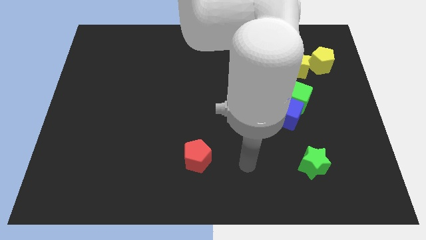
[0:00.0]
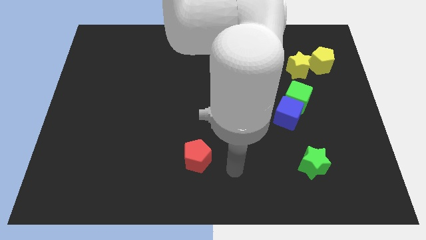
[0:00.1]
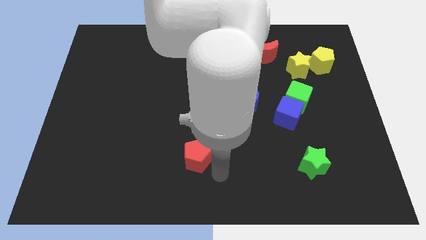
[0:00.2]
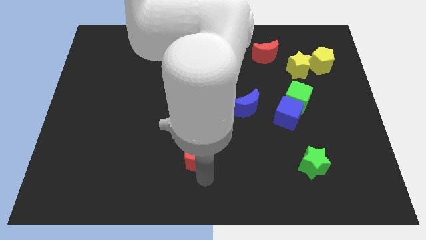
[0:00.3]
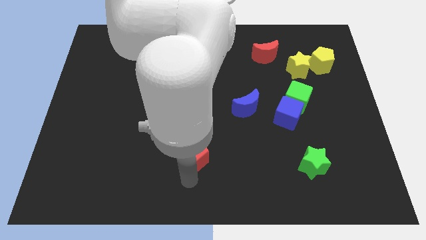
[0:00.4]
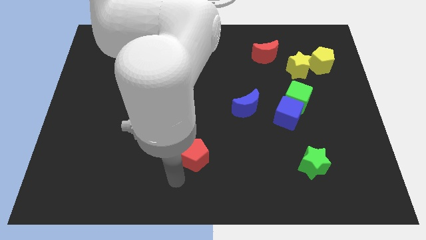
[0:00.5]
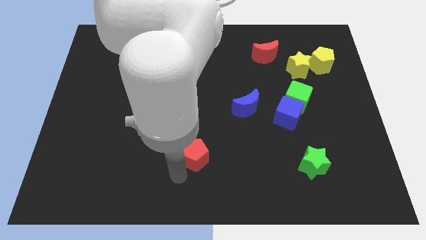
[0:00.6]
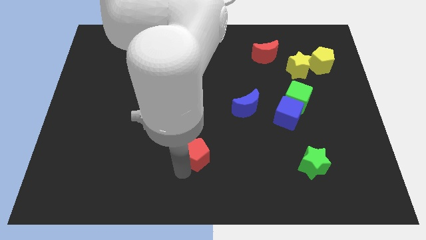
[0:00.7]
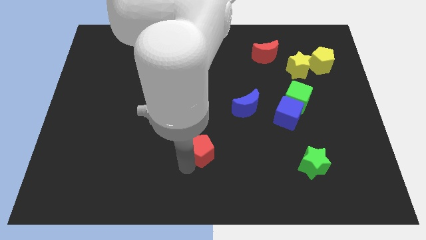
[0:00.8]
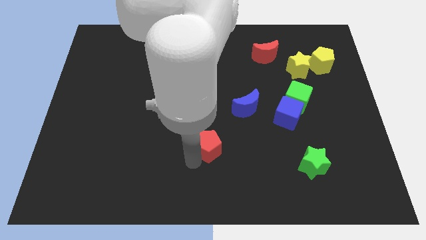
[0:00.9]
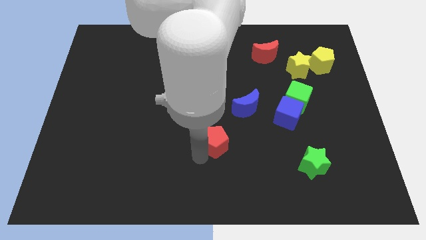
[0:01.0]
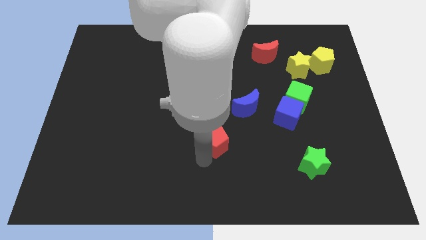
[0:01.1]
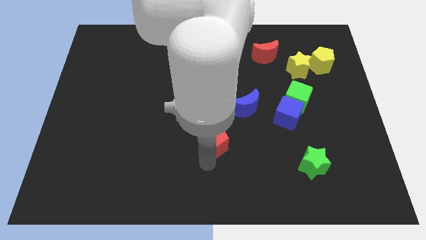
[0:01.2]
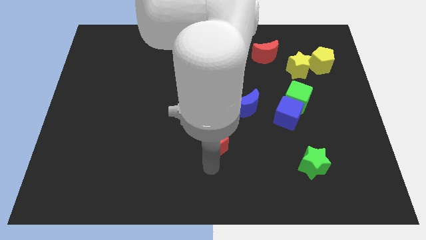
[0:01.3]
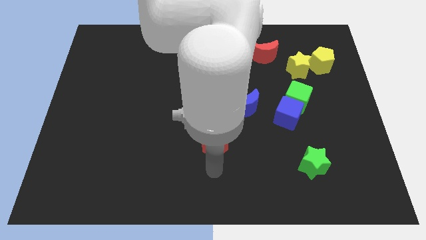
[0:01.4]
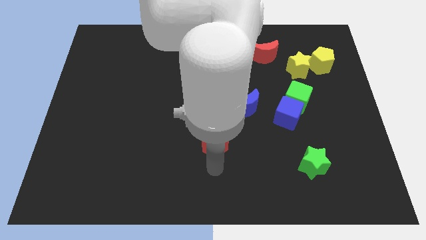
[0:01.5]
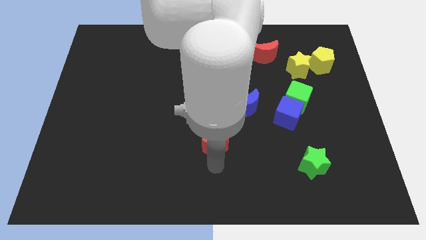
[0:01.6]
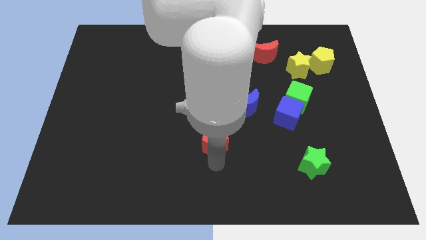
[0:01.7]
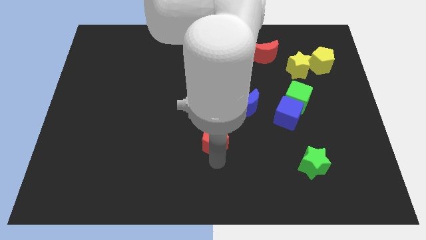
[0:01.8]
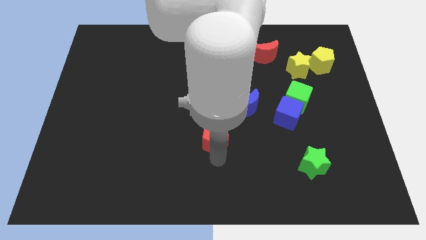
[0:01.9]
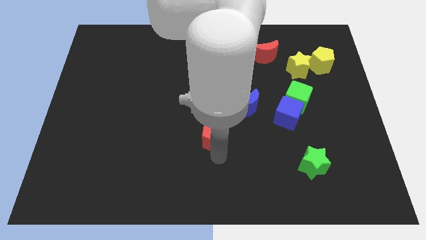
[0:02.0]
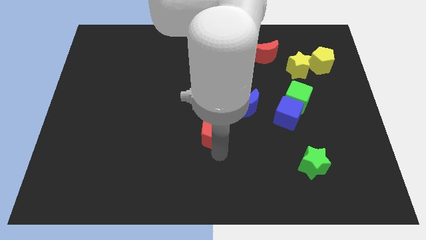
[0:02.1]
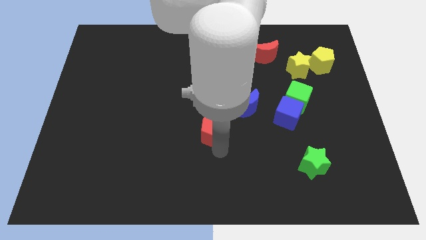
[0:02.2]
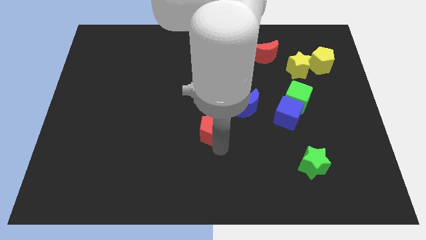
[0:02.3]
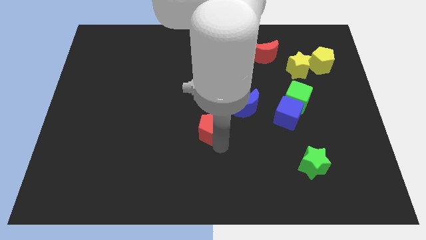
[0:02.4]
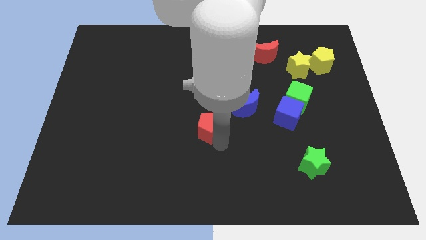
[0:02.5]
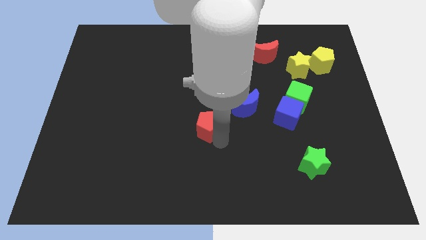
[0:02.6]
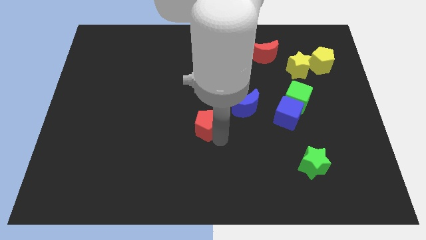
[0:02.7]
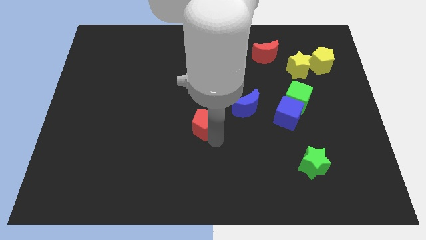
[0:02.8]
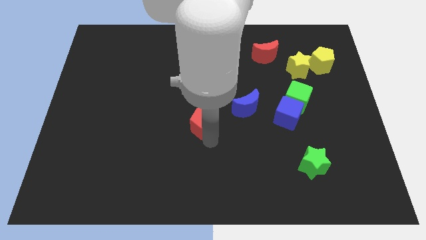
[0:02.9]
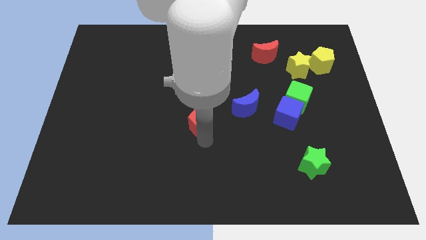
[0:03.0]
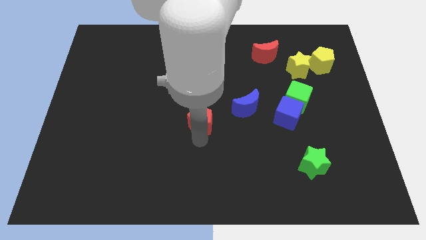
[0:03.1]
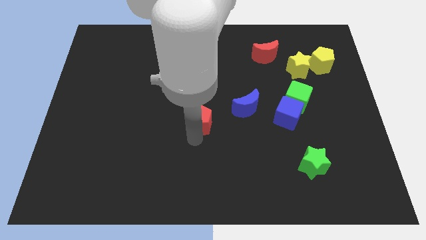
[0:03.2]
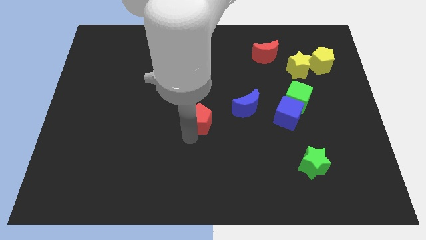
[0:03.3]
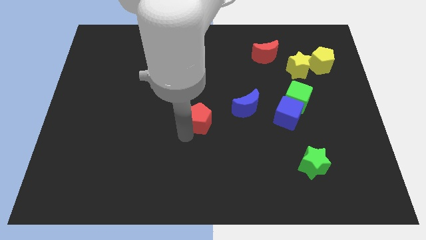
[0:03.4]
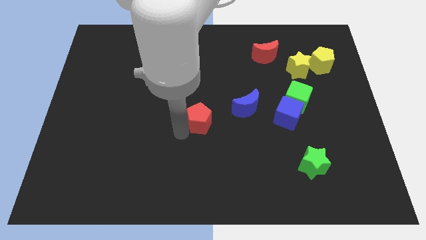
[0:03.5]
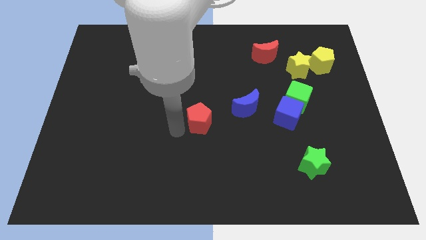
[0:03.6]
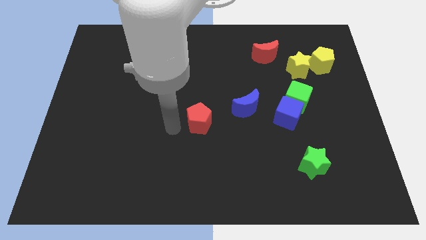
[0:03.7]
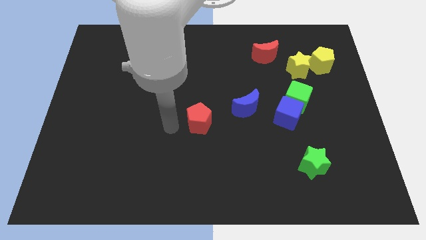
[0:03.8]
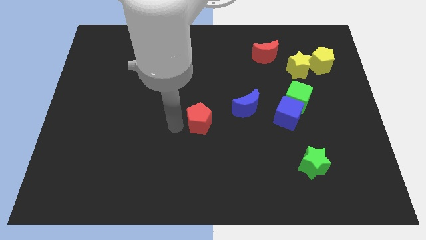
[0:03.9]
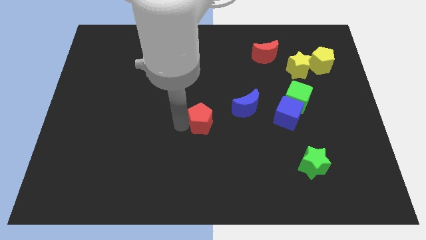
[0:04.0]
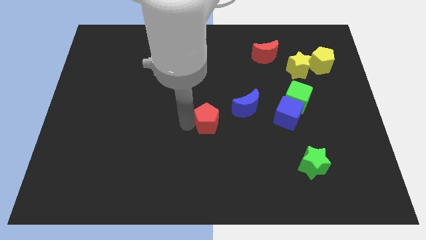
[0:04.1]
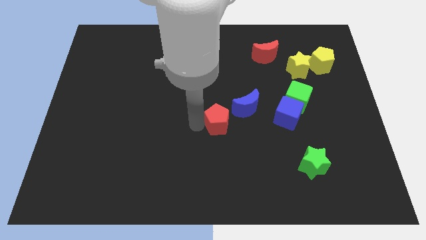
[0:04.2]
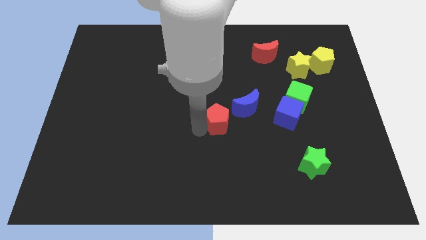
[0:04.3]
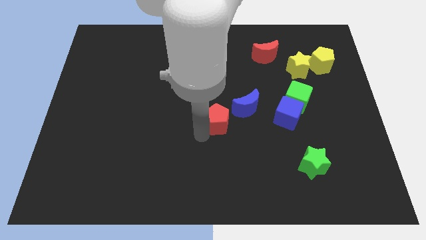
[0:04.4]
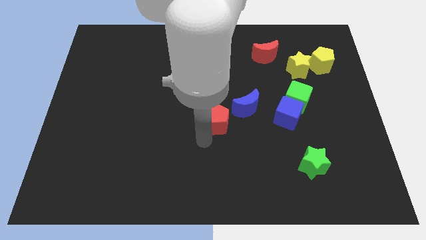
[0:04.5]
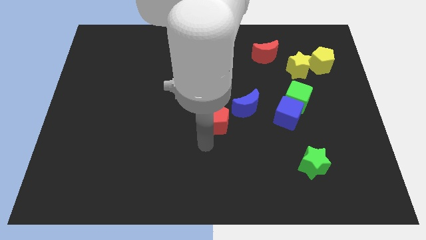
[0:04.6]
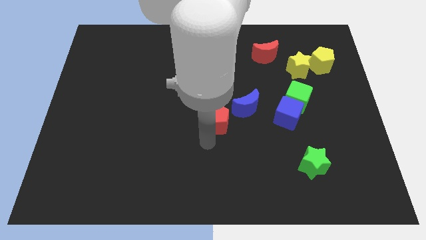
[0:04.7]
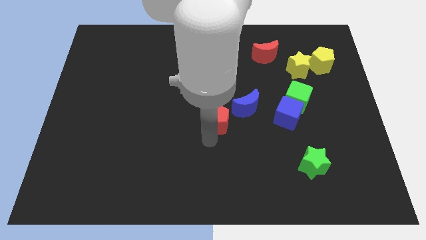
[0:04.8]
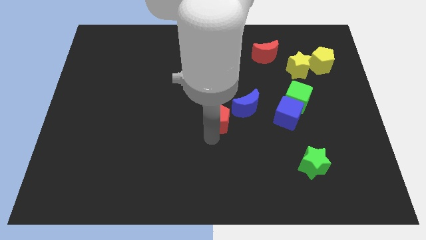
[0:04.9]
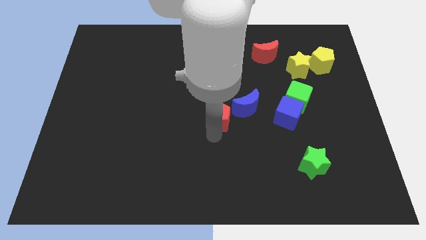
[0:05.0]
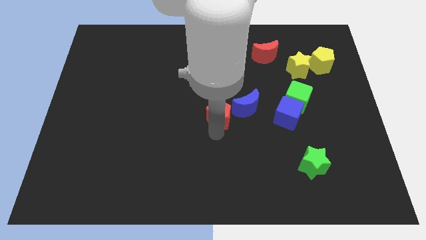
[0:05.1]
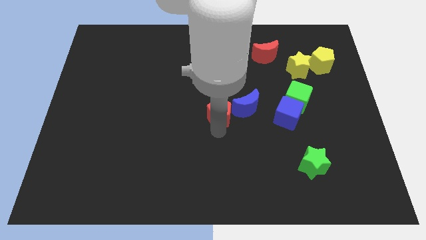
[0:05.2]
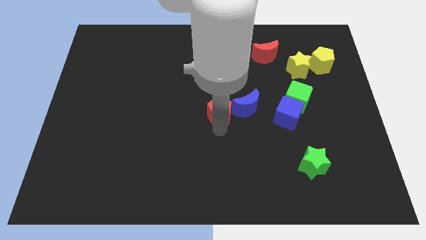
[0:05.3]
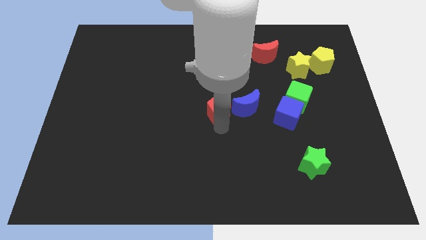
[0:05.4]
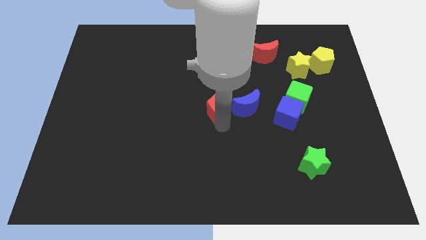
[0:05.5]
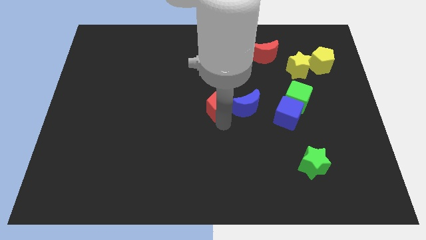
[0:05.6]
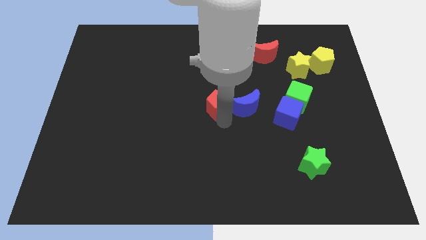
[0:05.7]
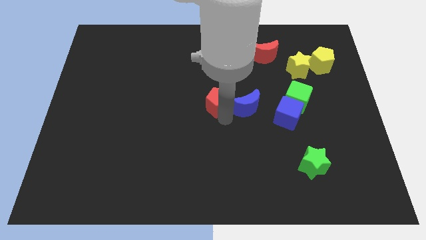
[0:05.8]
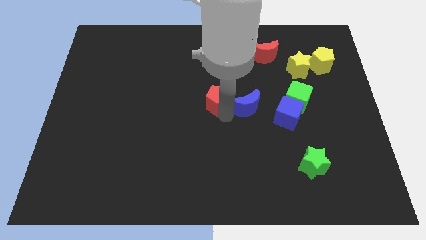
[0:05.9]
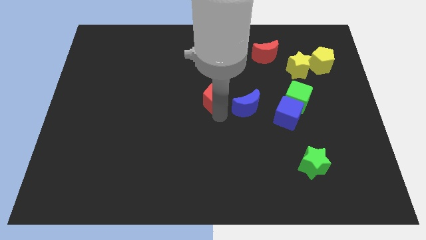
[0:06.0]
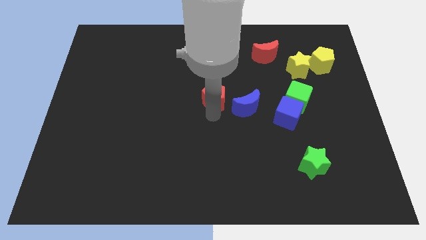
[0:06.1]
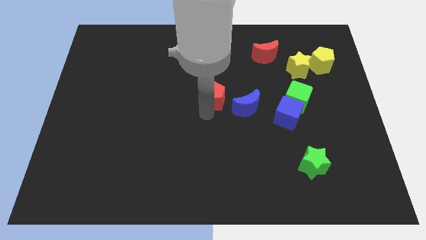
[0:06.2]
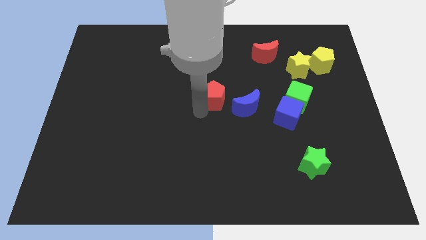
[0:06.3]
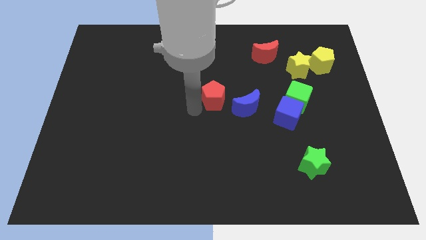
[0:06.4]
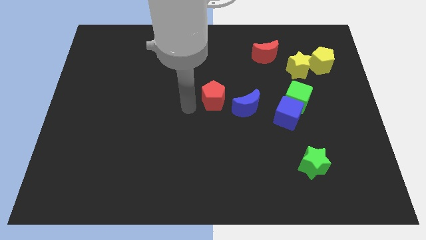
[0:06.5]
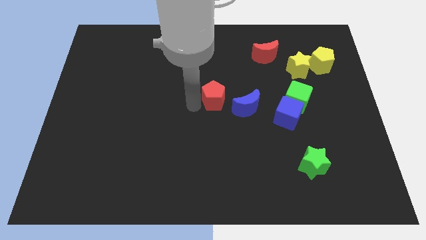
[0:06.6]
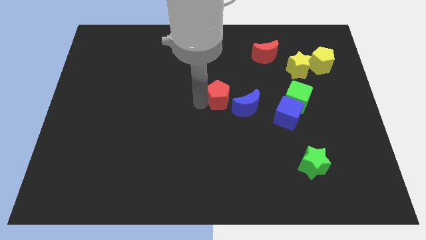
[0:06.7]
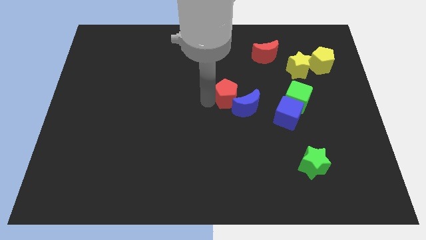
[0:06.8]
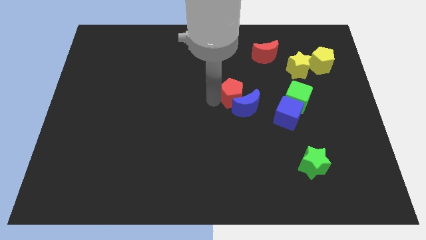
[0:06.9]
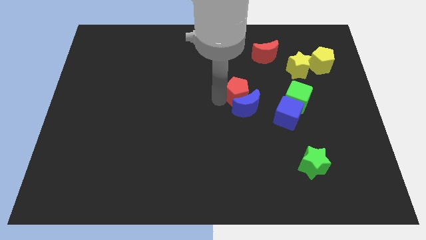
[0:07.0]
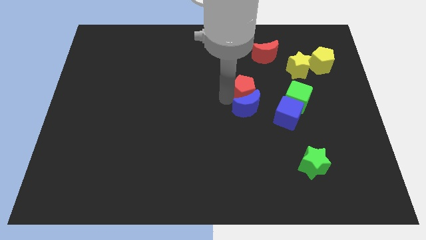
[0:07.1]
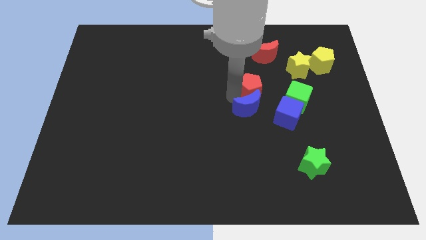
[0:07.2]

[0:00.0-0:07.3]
slide the red pentagon diagonally upwards and right

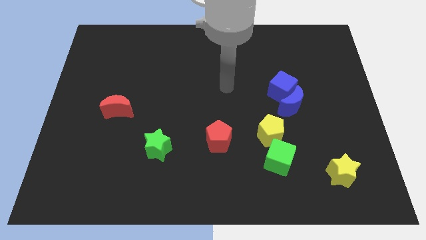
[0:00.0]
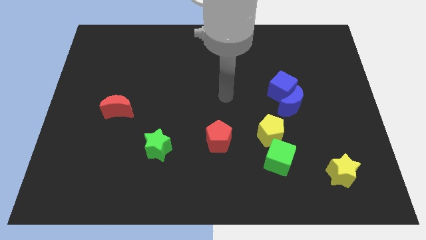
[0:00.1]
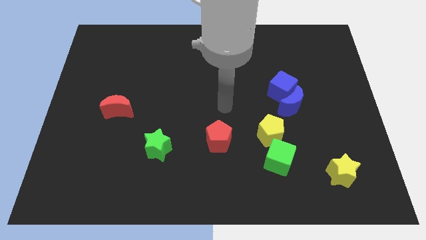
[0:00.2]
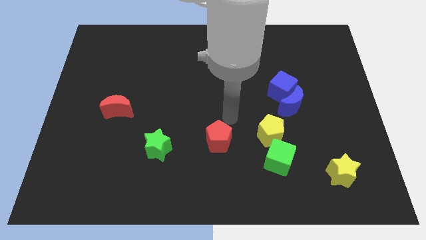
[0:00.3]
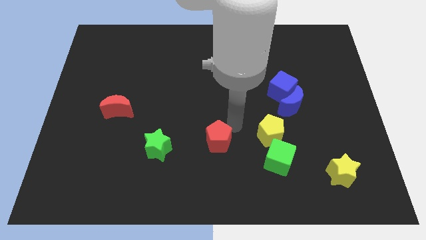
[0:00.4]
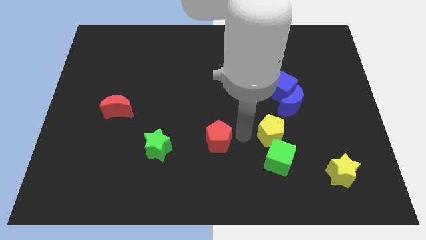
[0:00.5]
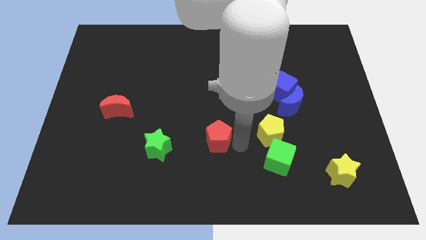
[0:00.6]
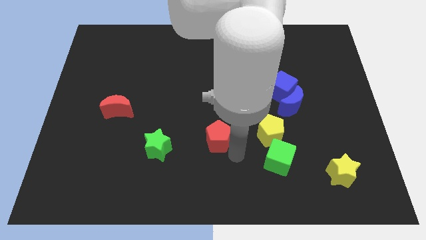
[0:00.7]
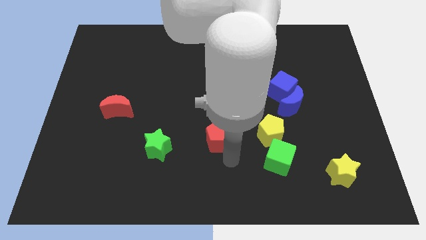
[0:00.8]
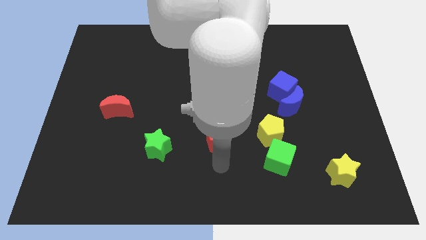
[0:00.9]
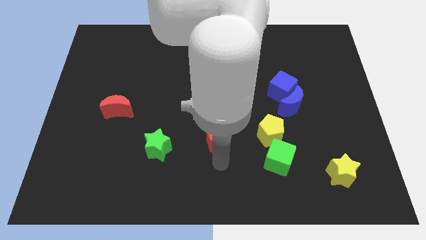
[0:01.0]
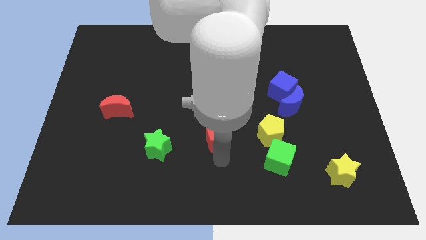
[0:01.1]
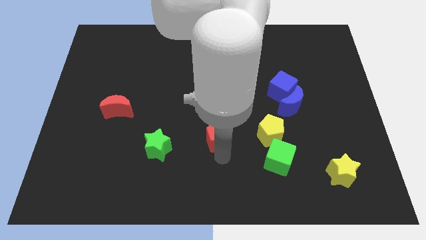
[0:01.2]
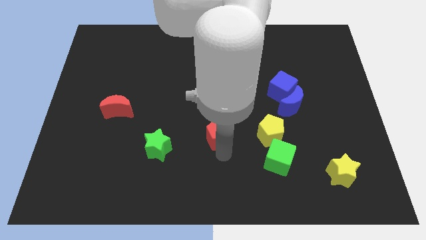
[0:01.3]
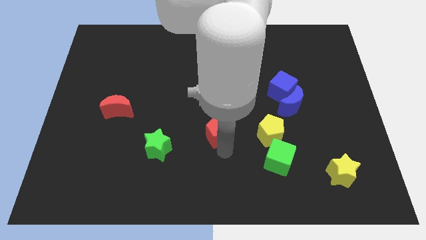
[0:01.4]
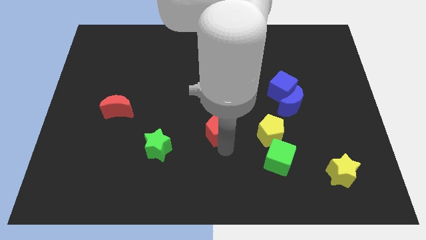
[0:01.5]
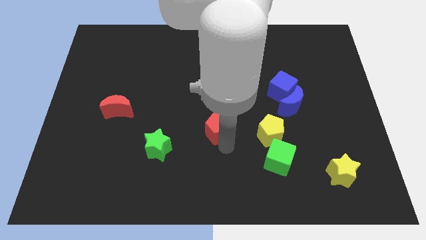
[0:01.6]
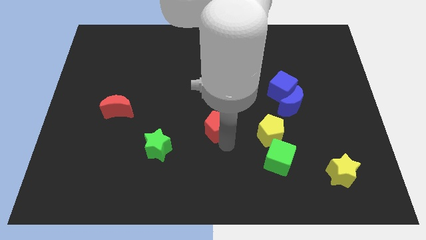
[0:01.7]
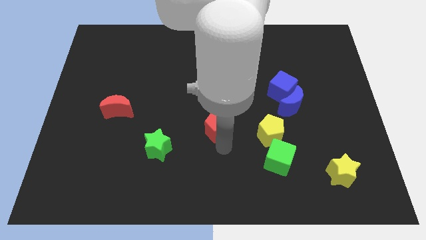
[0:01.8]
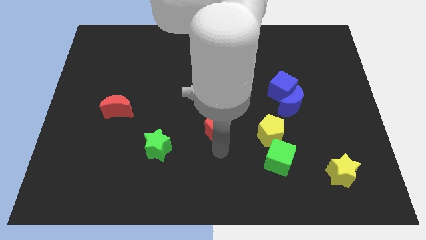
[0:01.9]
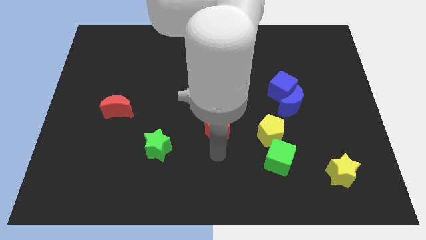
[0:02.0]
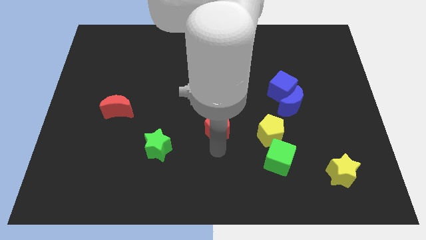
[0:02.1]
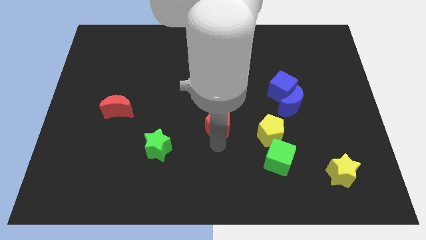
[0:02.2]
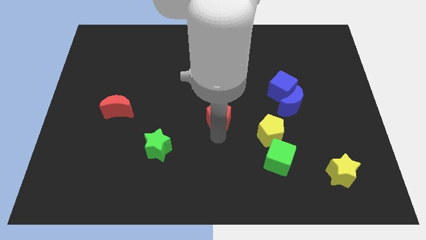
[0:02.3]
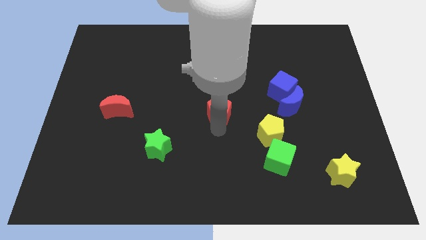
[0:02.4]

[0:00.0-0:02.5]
slightly slide the red pentagon up
